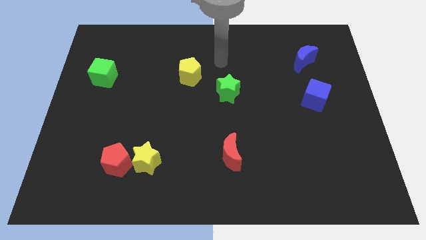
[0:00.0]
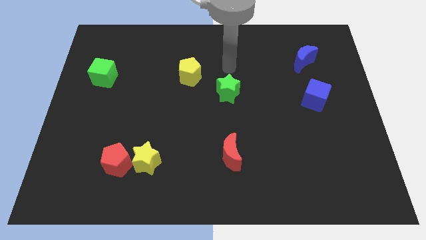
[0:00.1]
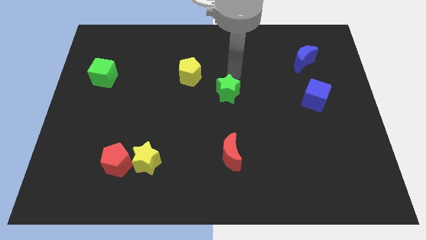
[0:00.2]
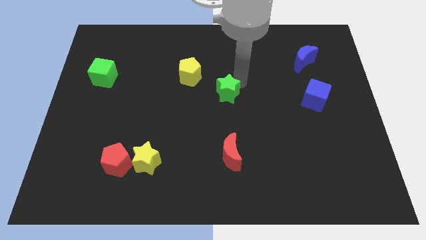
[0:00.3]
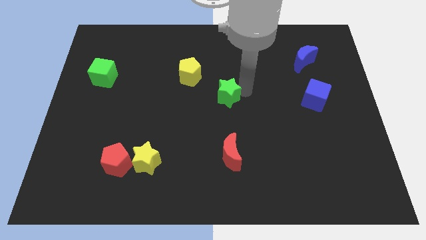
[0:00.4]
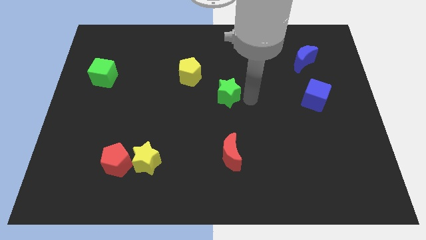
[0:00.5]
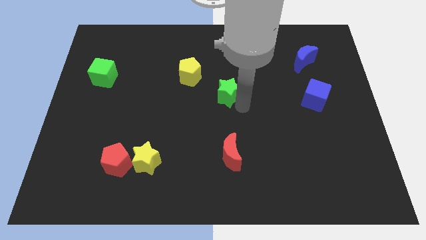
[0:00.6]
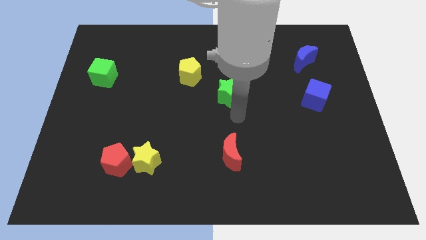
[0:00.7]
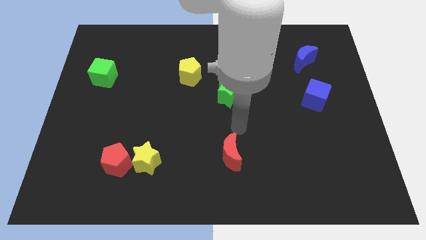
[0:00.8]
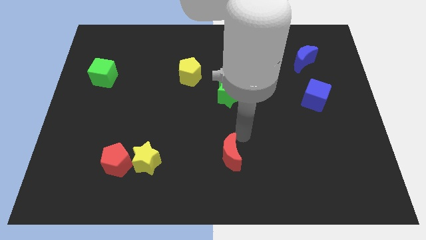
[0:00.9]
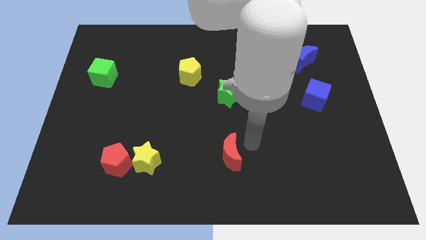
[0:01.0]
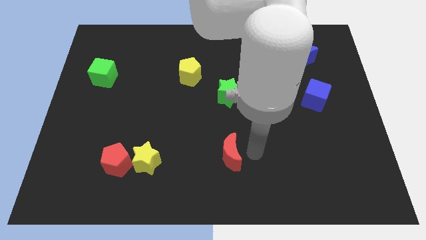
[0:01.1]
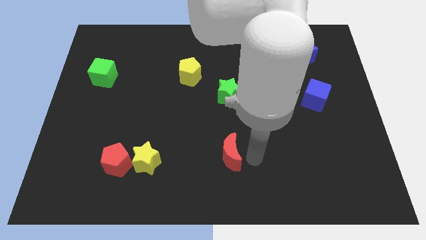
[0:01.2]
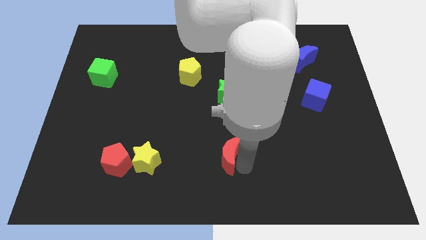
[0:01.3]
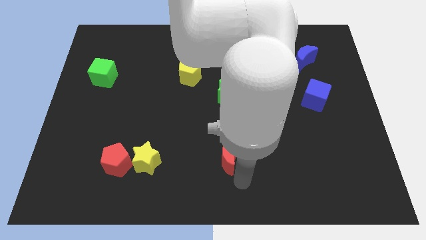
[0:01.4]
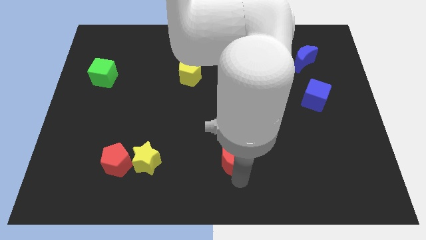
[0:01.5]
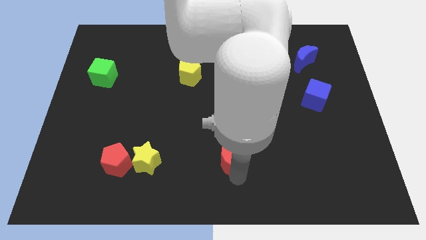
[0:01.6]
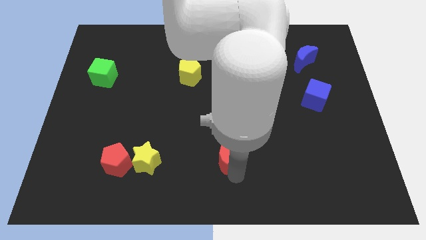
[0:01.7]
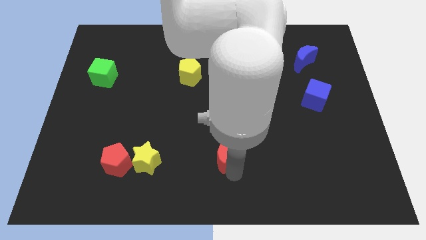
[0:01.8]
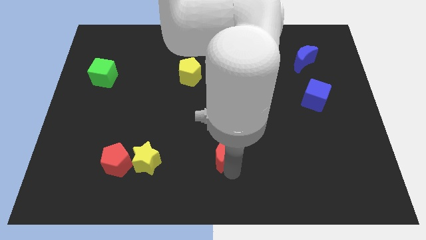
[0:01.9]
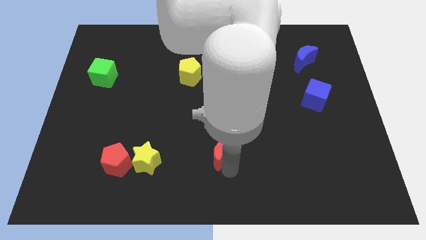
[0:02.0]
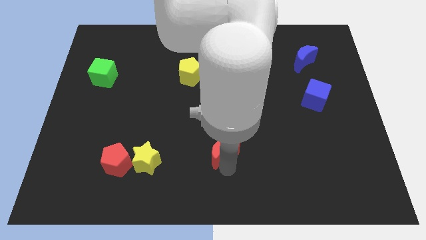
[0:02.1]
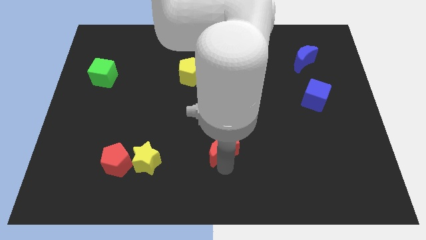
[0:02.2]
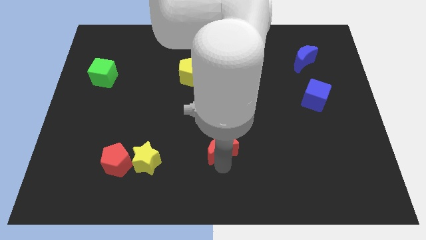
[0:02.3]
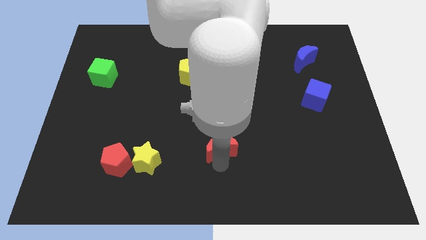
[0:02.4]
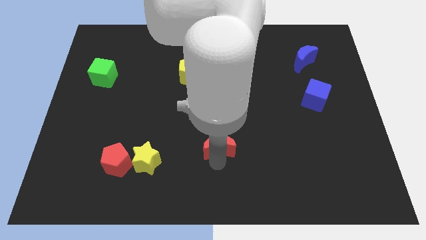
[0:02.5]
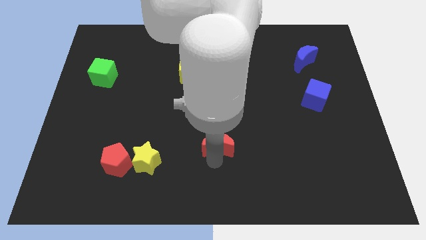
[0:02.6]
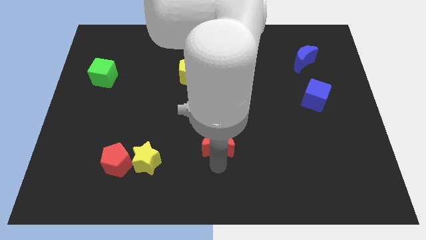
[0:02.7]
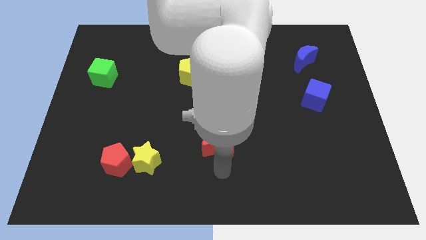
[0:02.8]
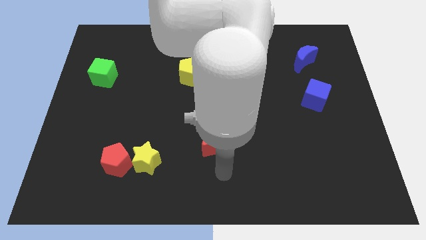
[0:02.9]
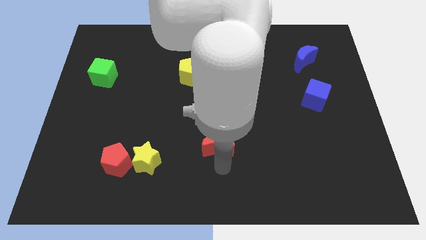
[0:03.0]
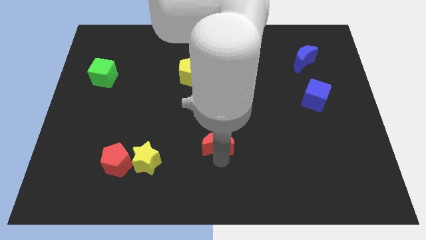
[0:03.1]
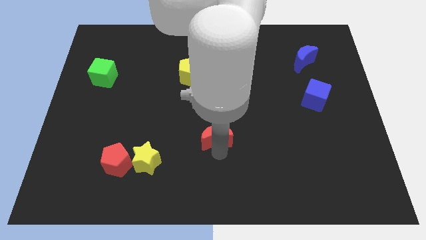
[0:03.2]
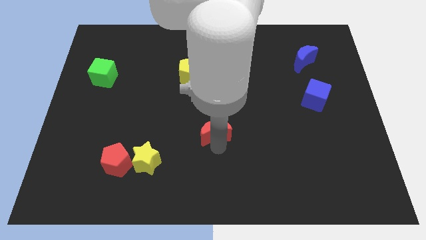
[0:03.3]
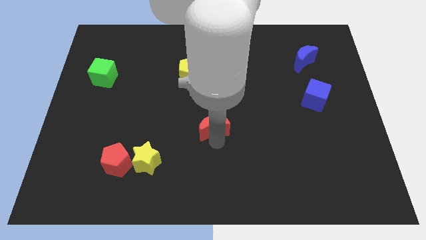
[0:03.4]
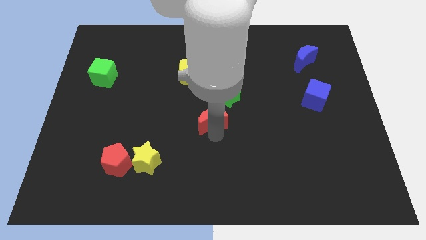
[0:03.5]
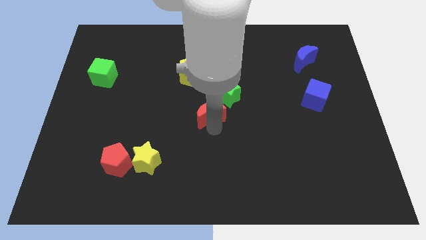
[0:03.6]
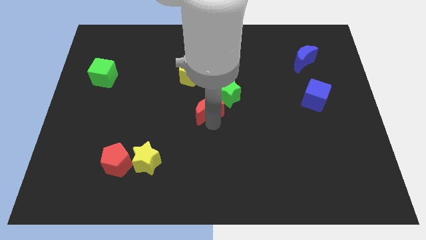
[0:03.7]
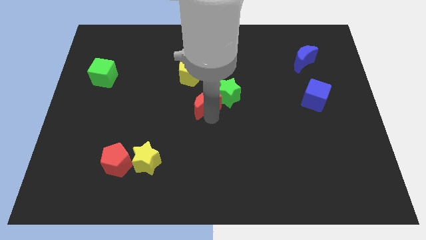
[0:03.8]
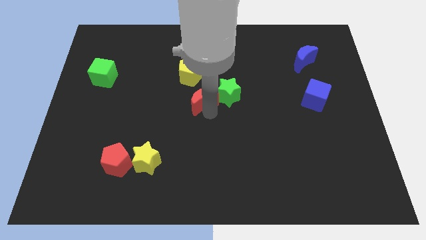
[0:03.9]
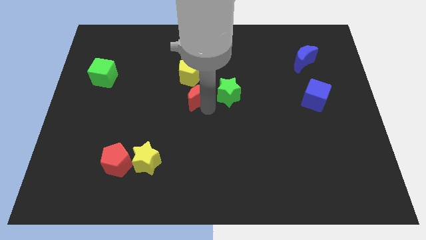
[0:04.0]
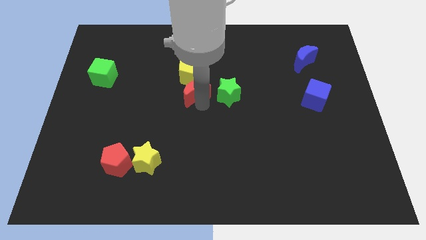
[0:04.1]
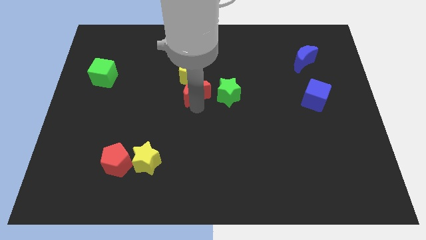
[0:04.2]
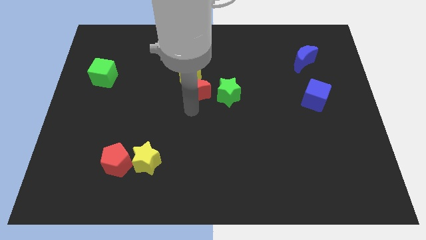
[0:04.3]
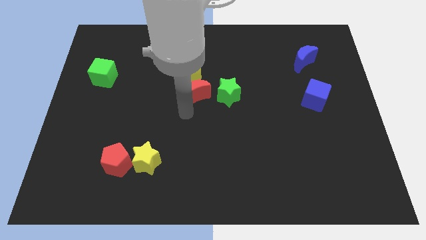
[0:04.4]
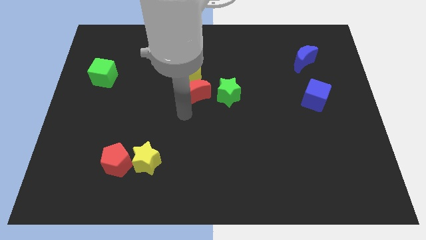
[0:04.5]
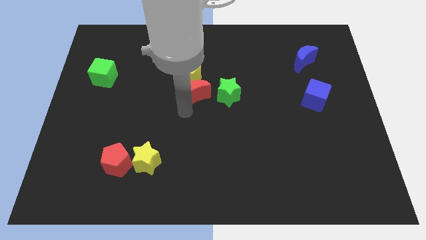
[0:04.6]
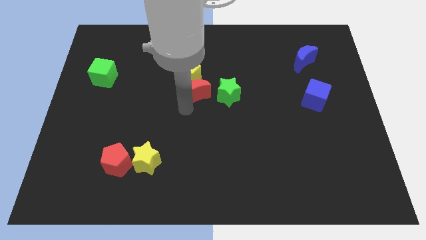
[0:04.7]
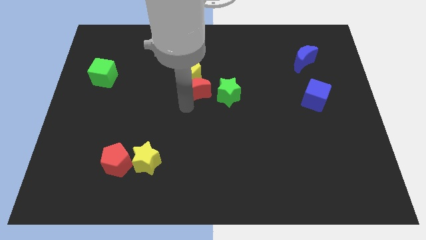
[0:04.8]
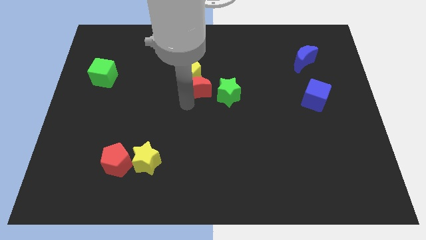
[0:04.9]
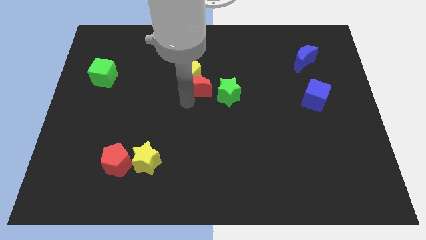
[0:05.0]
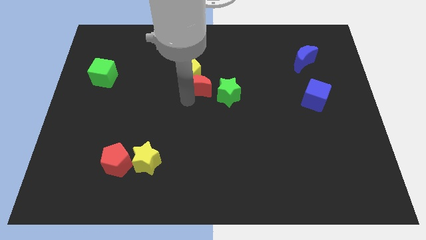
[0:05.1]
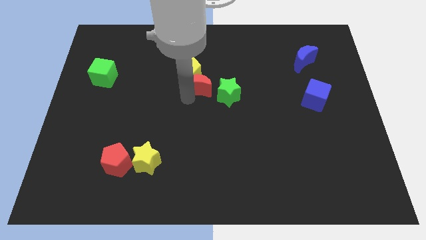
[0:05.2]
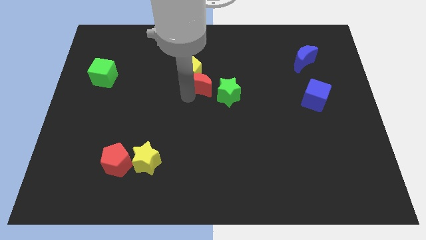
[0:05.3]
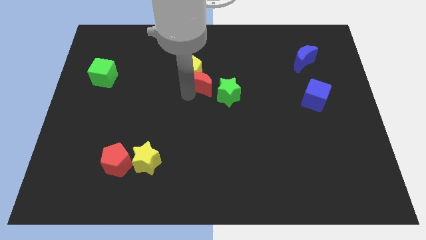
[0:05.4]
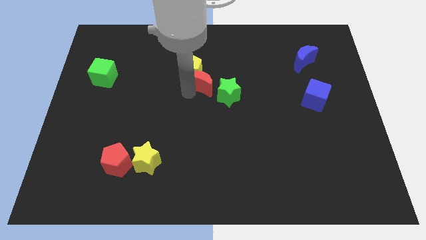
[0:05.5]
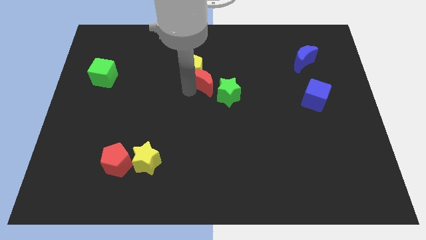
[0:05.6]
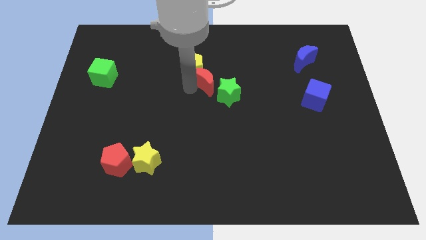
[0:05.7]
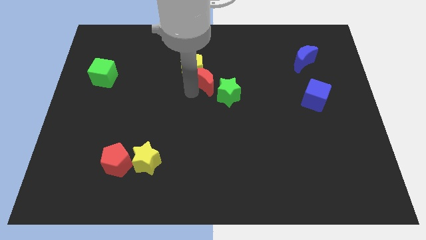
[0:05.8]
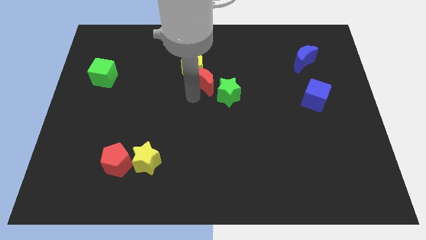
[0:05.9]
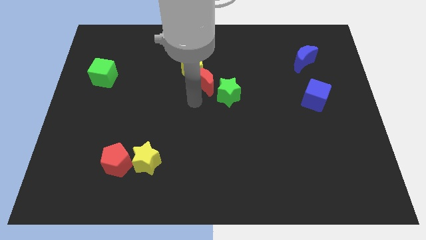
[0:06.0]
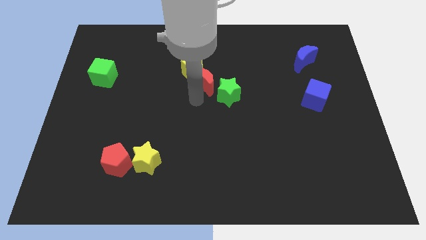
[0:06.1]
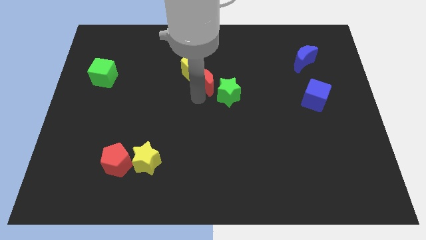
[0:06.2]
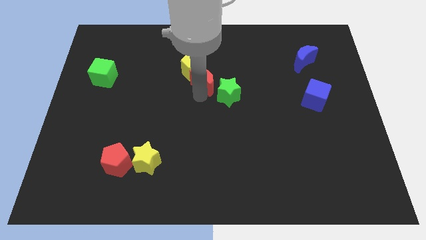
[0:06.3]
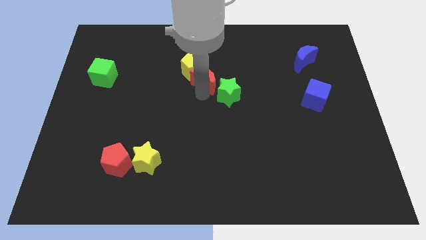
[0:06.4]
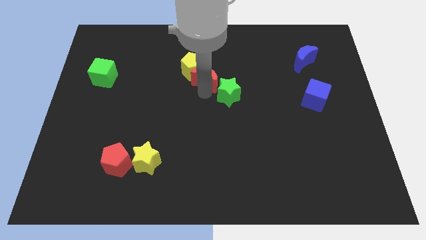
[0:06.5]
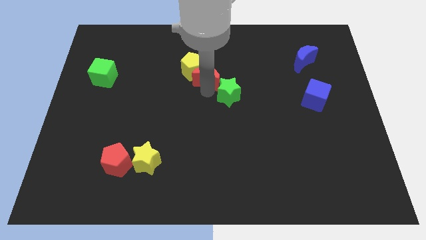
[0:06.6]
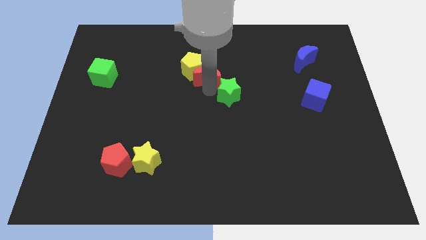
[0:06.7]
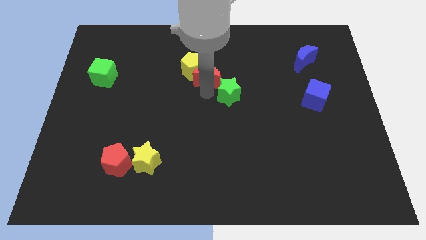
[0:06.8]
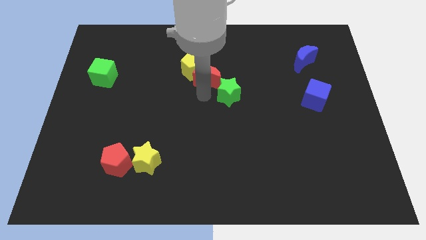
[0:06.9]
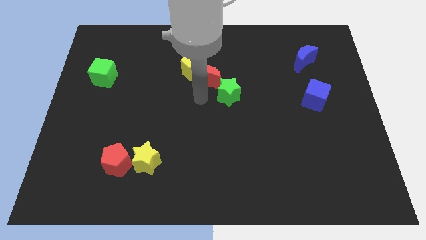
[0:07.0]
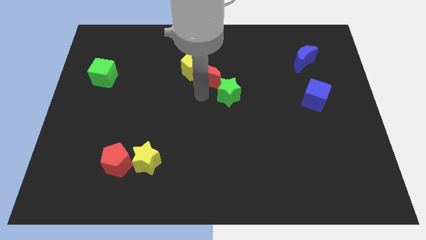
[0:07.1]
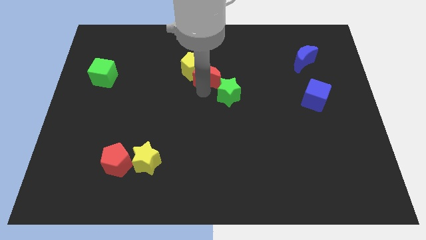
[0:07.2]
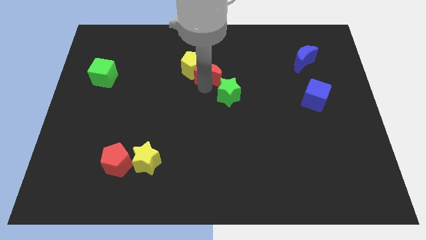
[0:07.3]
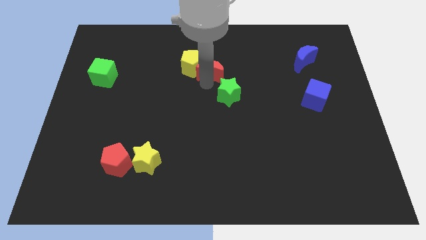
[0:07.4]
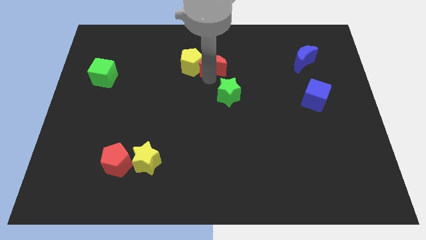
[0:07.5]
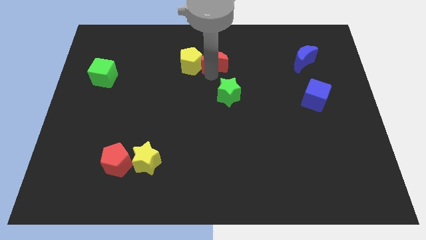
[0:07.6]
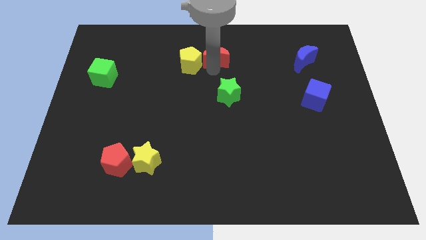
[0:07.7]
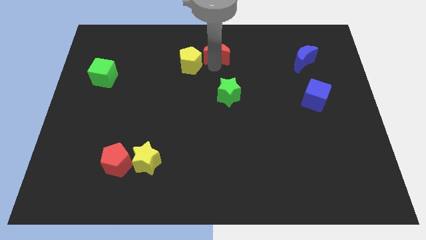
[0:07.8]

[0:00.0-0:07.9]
push the red moon to the top side
